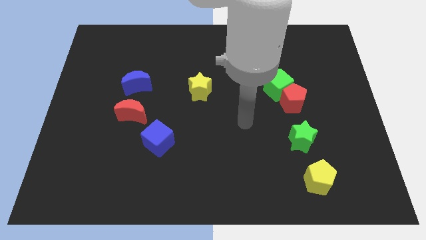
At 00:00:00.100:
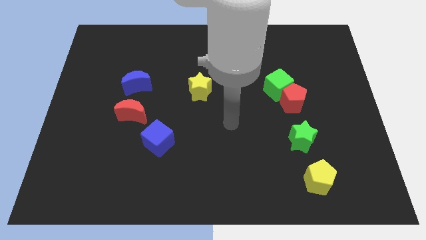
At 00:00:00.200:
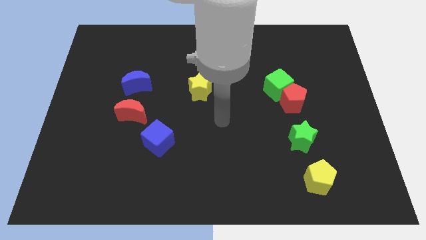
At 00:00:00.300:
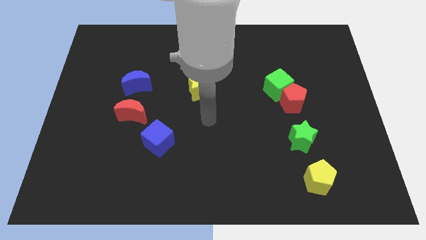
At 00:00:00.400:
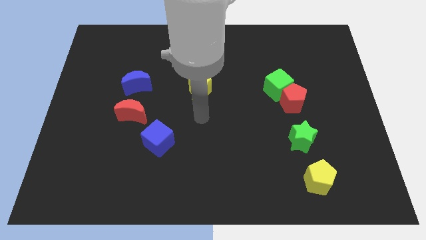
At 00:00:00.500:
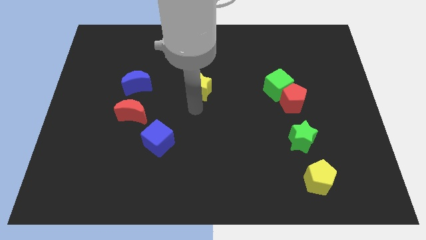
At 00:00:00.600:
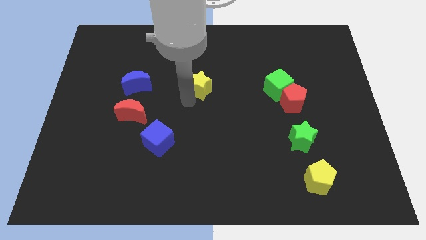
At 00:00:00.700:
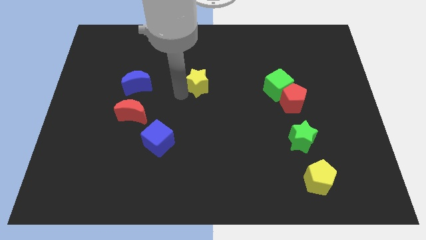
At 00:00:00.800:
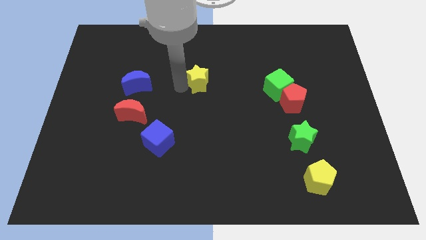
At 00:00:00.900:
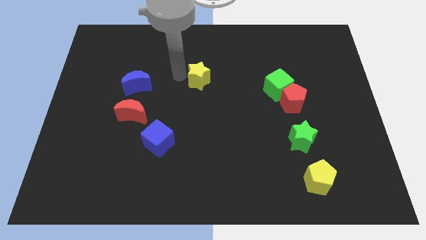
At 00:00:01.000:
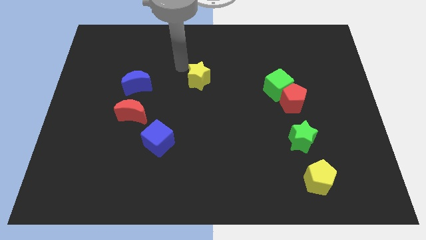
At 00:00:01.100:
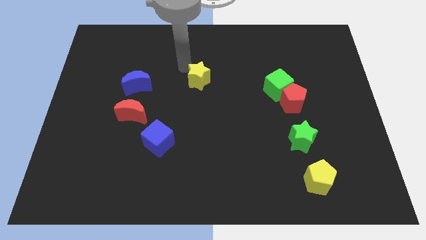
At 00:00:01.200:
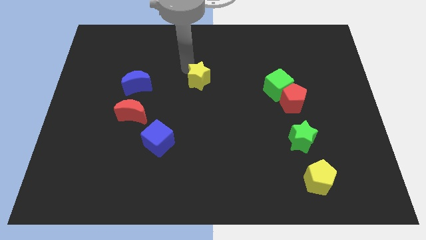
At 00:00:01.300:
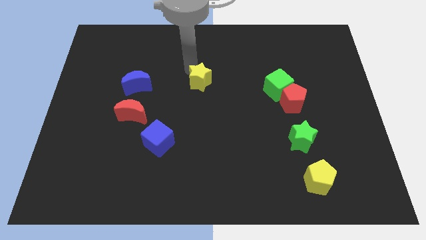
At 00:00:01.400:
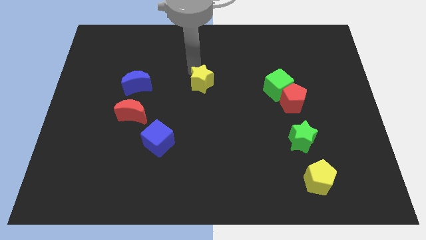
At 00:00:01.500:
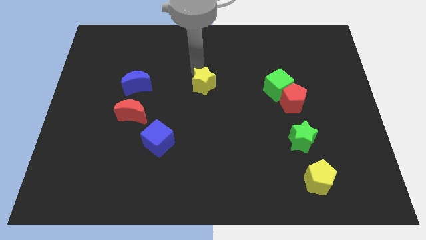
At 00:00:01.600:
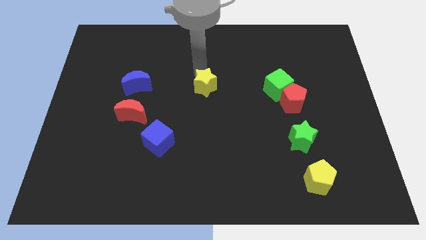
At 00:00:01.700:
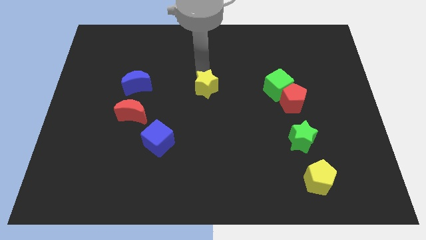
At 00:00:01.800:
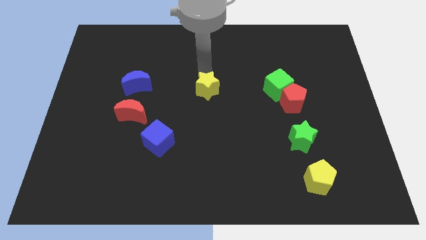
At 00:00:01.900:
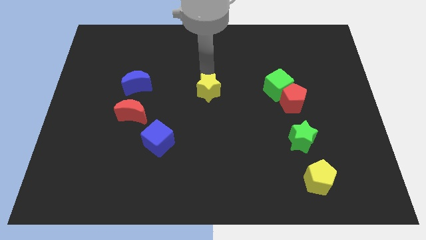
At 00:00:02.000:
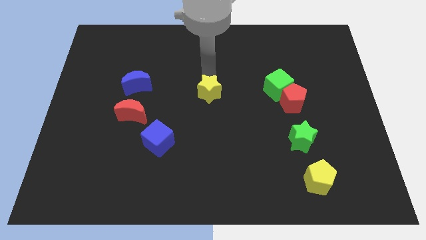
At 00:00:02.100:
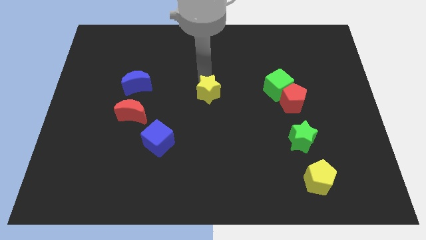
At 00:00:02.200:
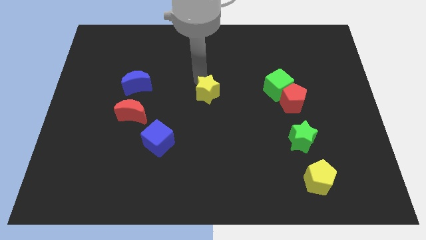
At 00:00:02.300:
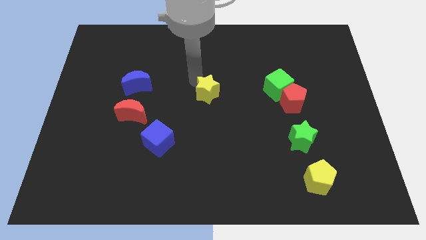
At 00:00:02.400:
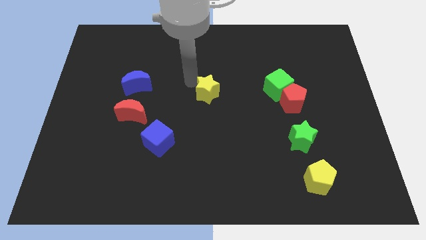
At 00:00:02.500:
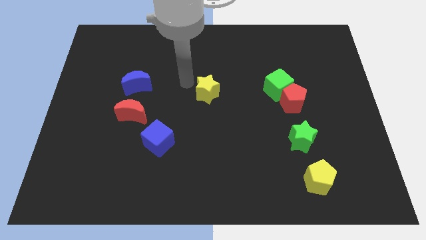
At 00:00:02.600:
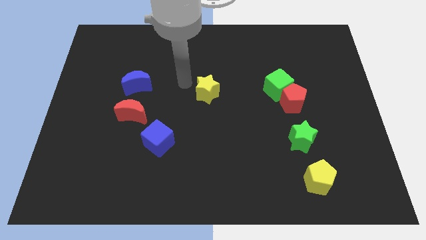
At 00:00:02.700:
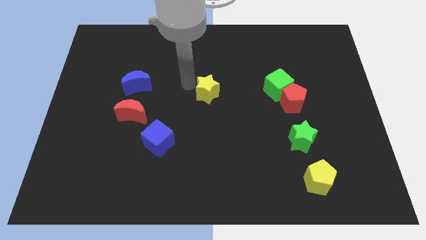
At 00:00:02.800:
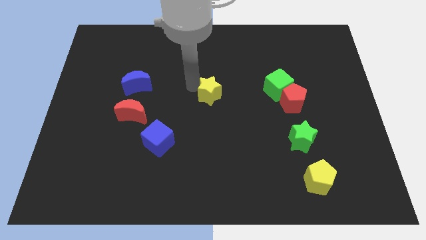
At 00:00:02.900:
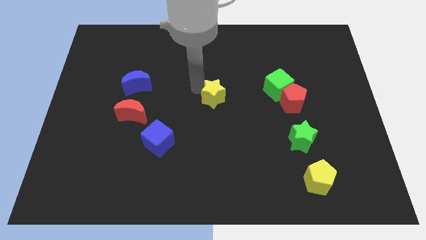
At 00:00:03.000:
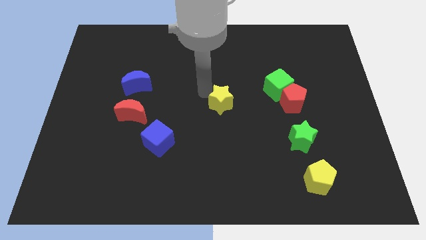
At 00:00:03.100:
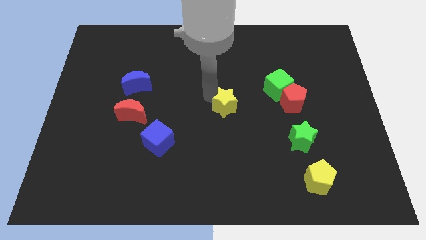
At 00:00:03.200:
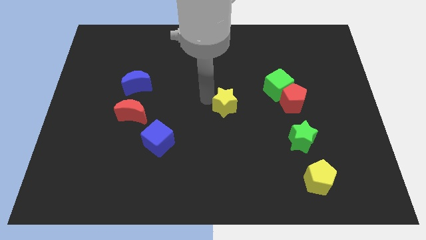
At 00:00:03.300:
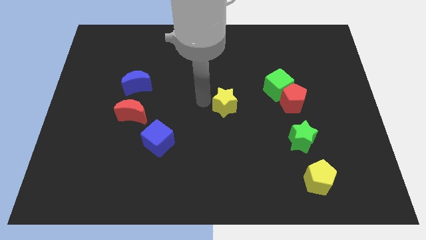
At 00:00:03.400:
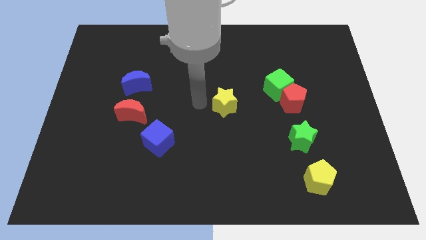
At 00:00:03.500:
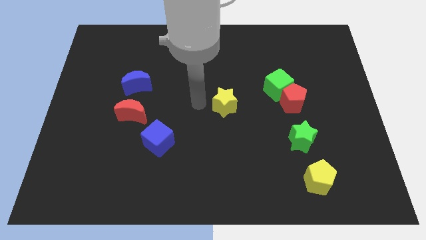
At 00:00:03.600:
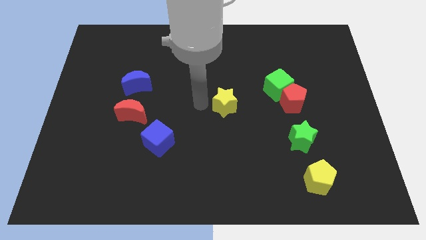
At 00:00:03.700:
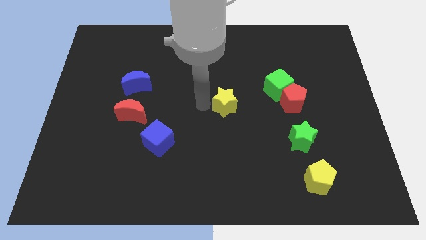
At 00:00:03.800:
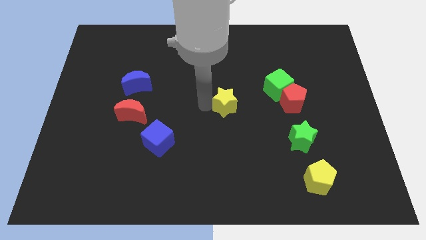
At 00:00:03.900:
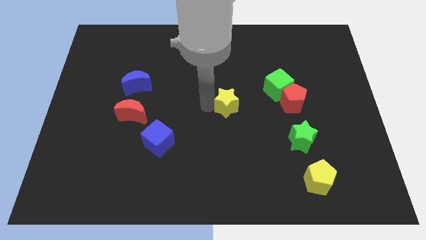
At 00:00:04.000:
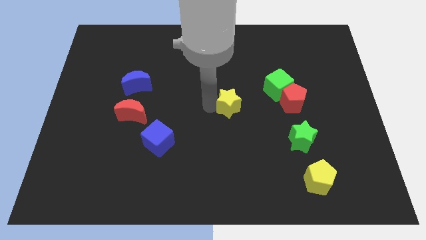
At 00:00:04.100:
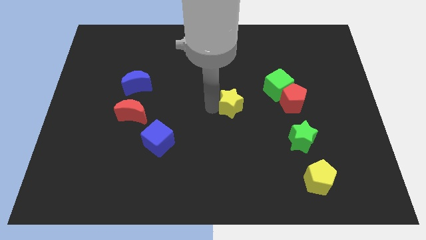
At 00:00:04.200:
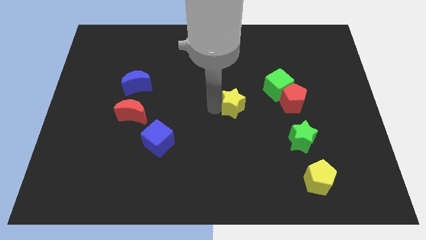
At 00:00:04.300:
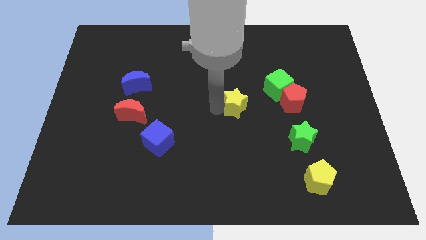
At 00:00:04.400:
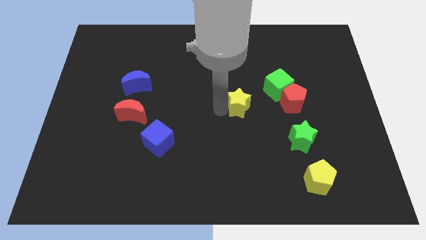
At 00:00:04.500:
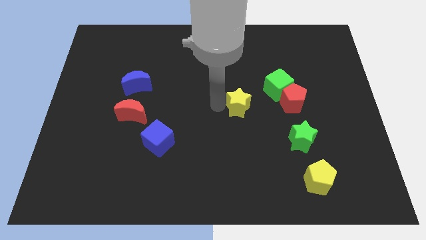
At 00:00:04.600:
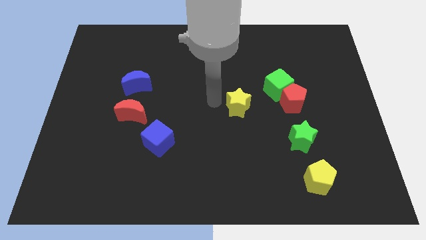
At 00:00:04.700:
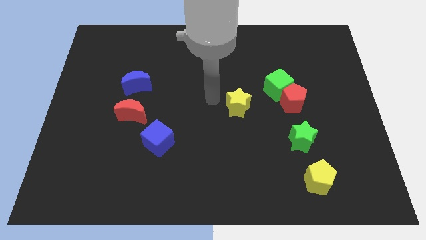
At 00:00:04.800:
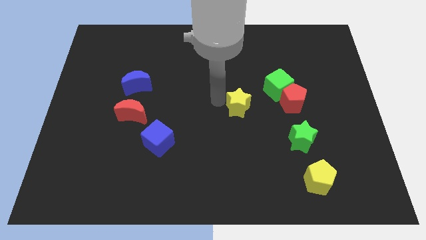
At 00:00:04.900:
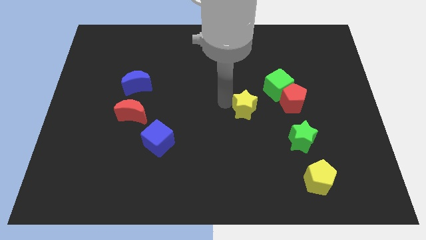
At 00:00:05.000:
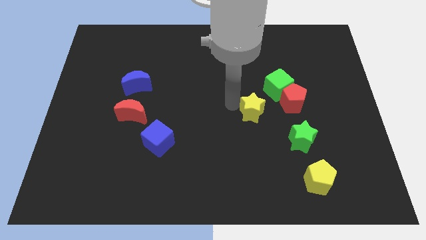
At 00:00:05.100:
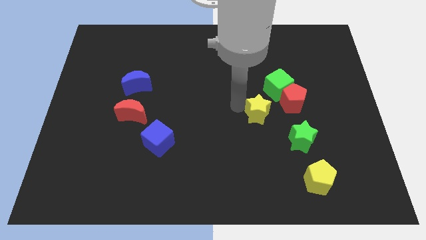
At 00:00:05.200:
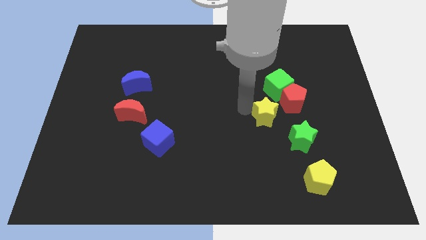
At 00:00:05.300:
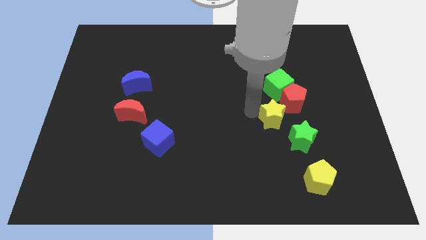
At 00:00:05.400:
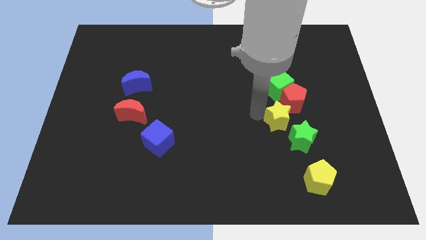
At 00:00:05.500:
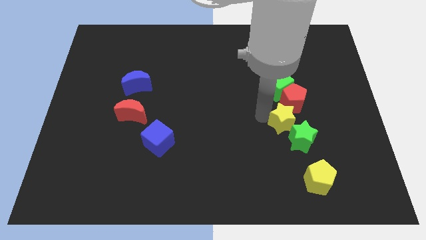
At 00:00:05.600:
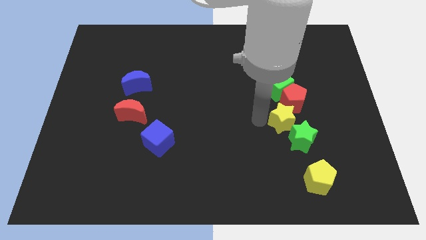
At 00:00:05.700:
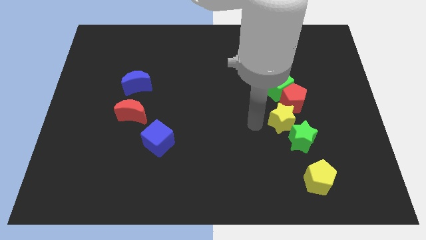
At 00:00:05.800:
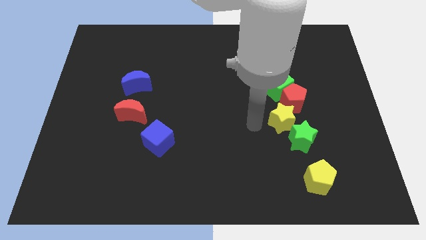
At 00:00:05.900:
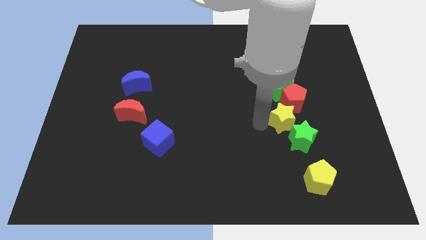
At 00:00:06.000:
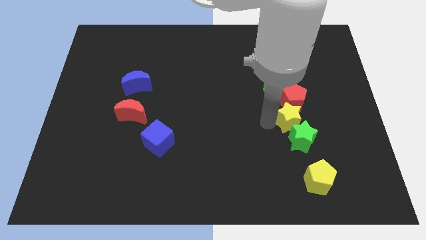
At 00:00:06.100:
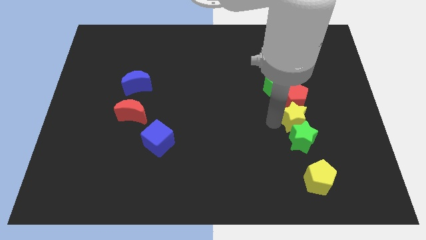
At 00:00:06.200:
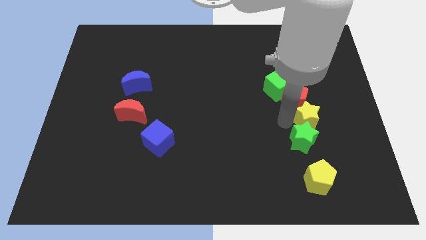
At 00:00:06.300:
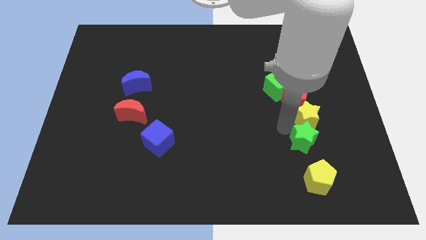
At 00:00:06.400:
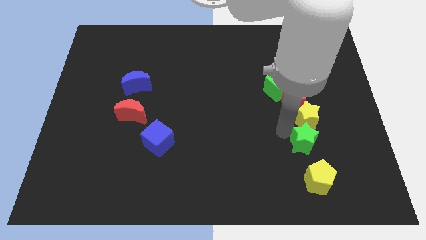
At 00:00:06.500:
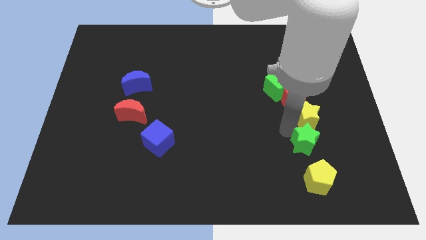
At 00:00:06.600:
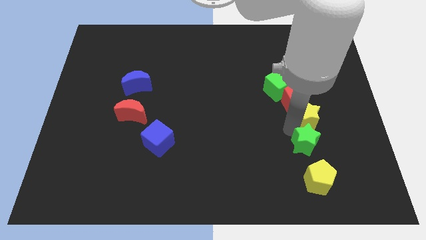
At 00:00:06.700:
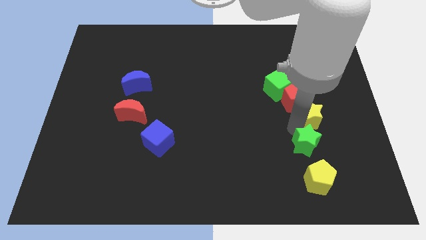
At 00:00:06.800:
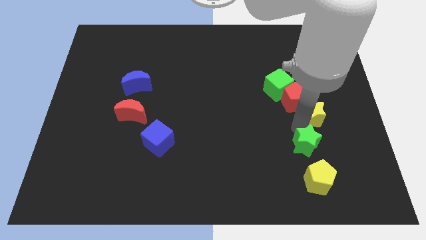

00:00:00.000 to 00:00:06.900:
push the yellow star just right of the red pentagon
